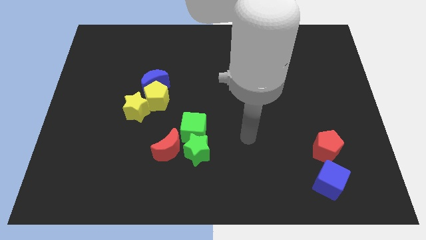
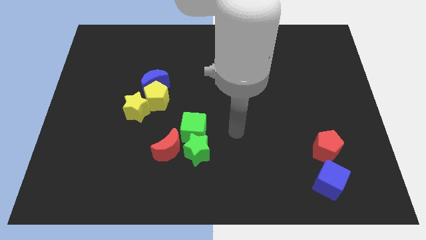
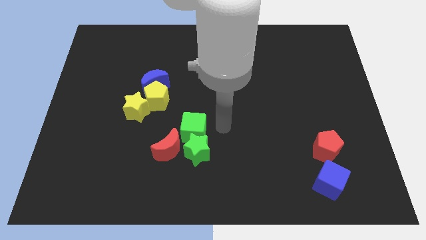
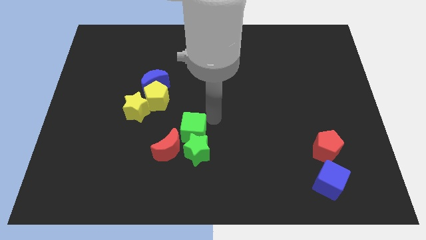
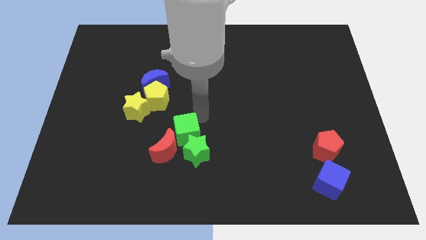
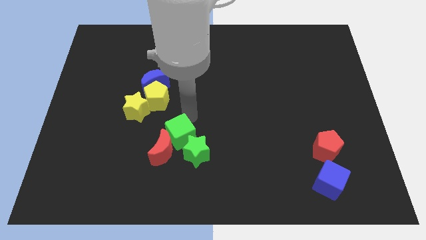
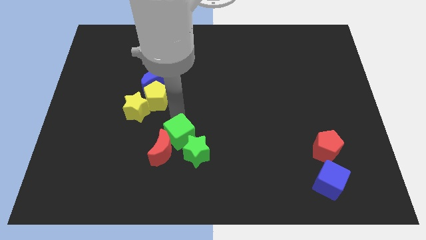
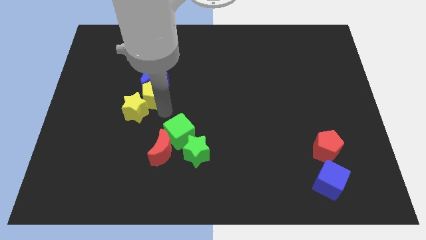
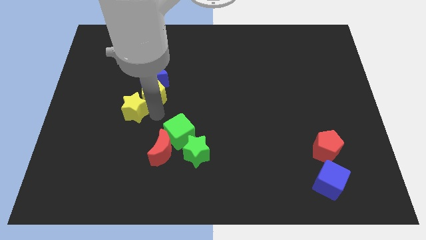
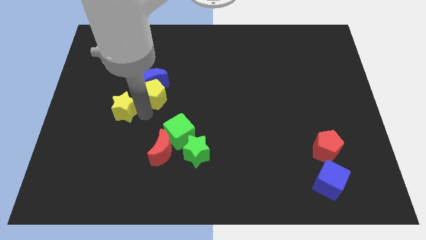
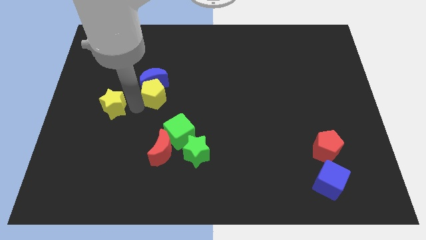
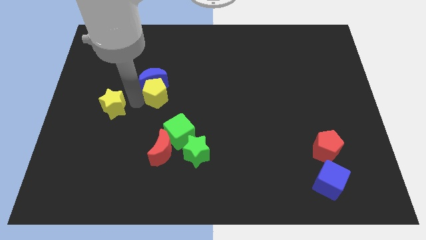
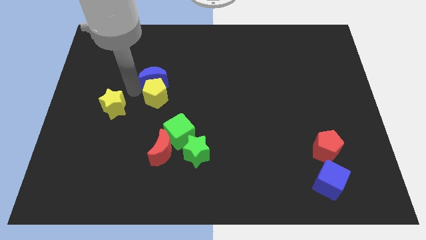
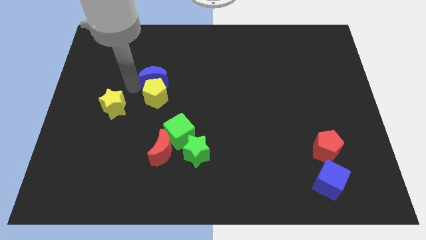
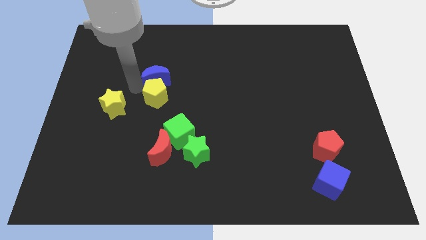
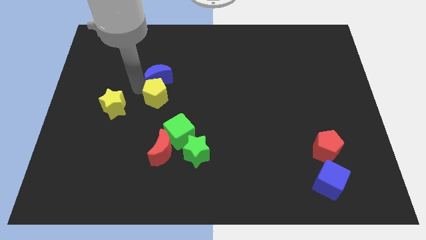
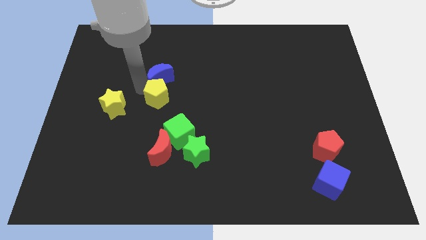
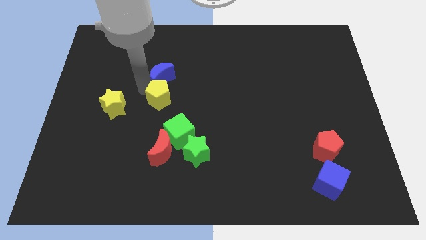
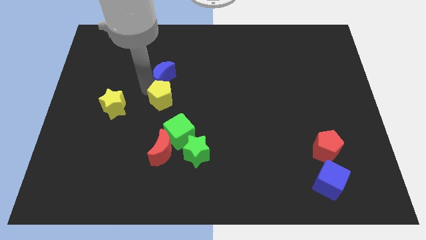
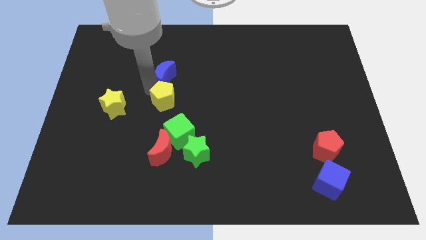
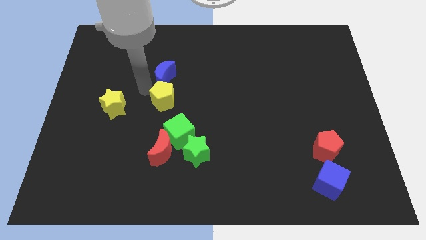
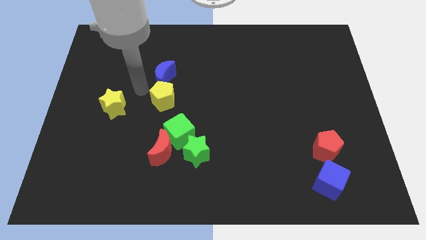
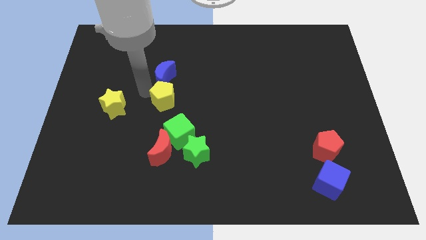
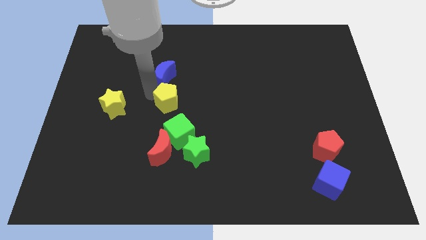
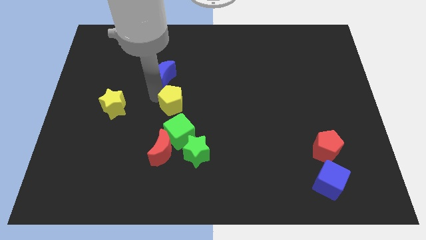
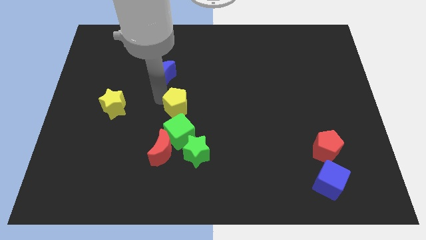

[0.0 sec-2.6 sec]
pull the yellow pentagon apart from the blue moon and yellow star

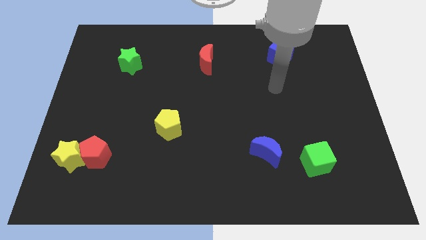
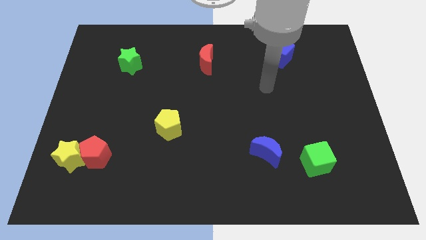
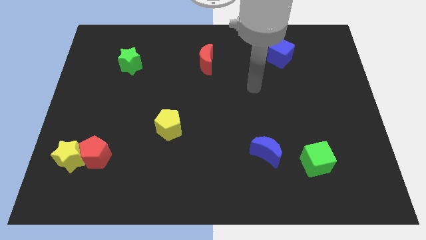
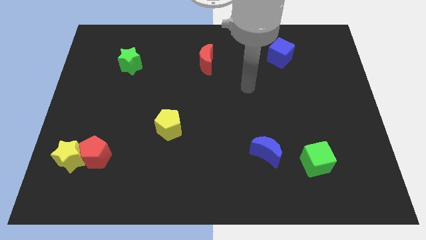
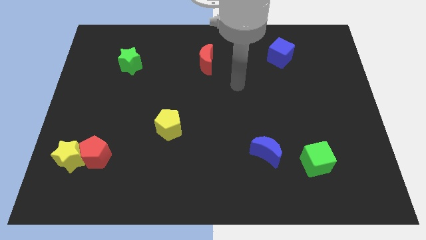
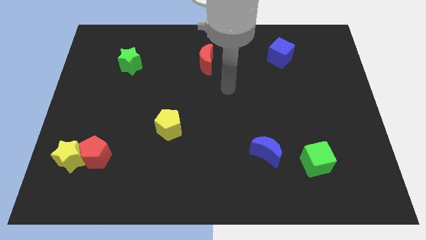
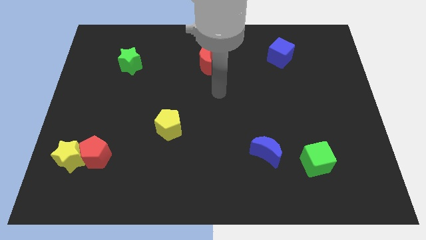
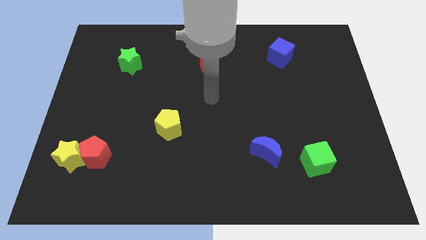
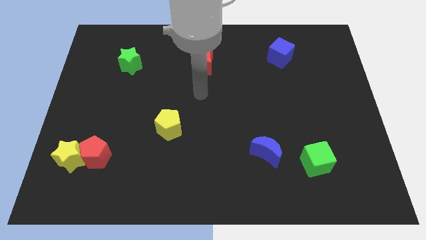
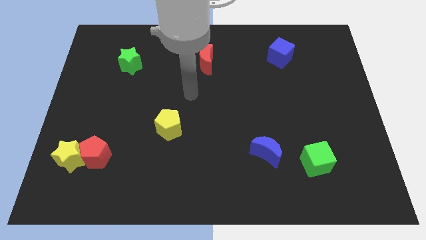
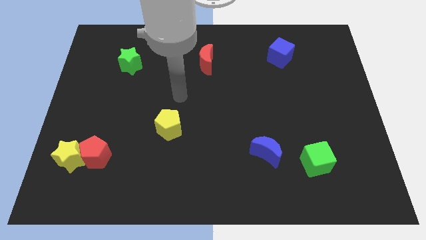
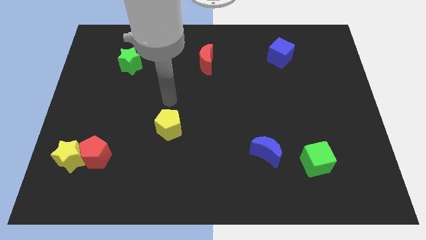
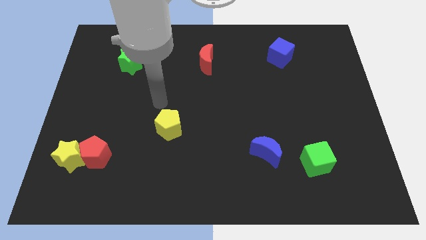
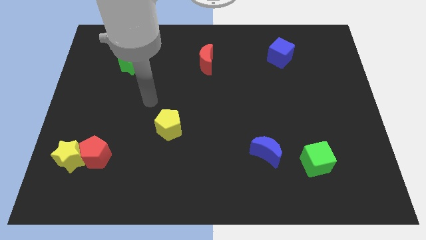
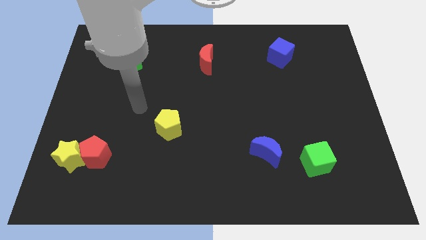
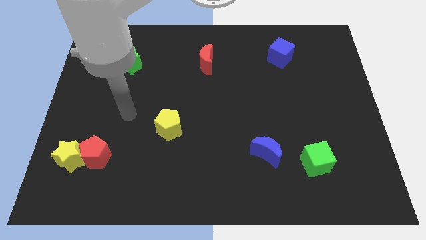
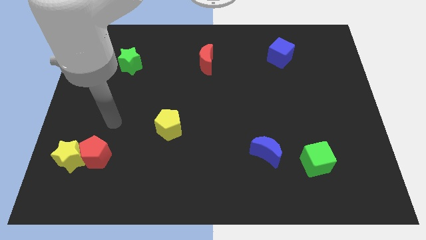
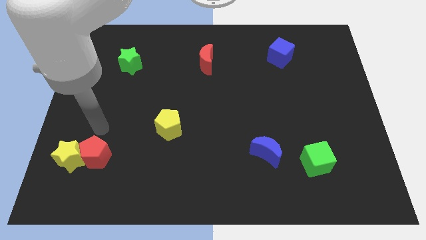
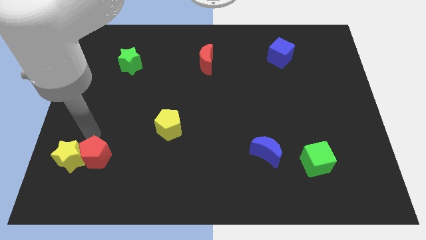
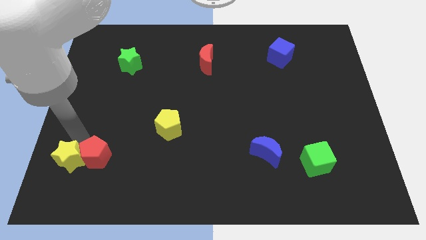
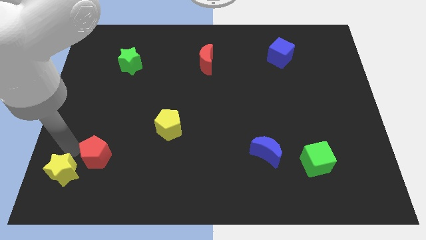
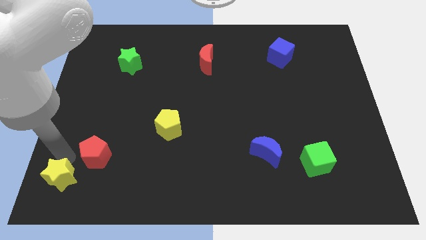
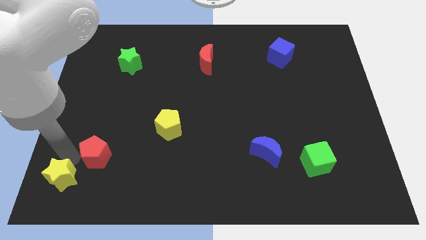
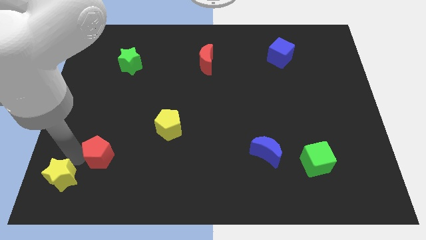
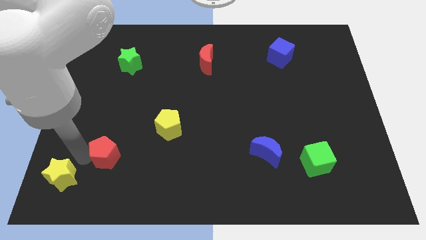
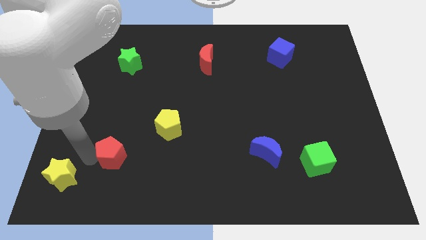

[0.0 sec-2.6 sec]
separate the red pentagon from the yellow star

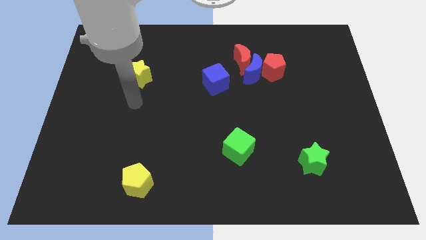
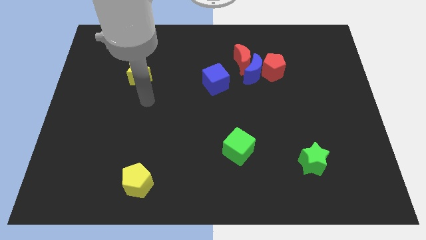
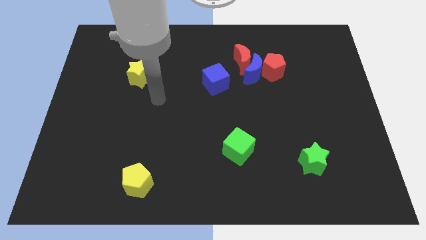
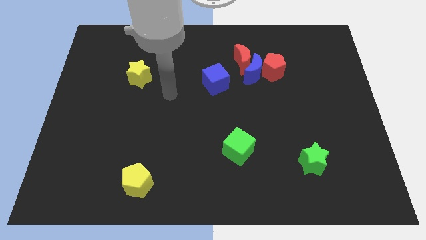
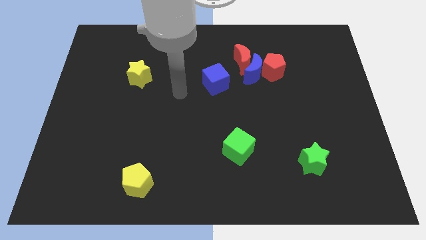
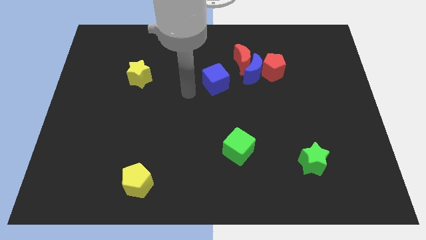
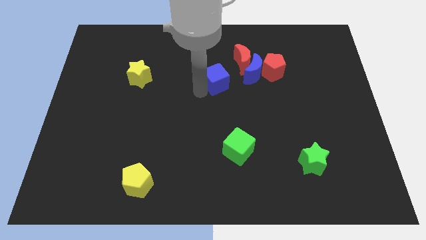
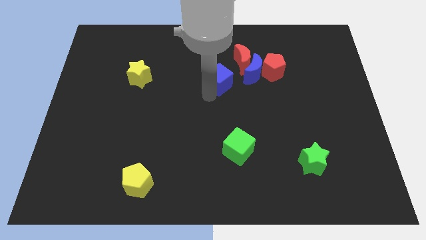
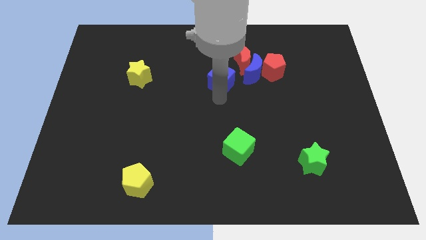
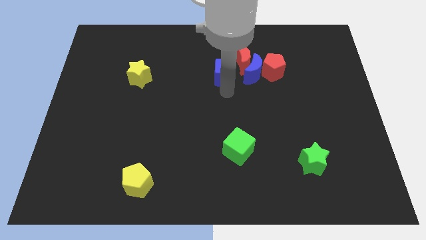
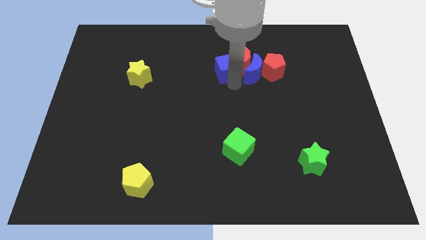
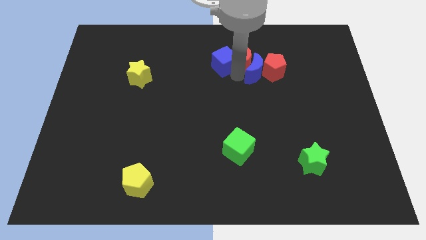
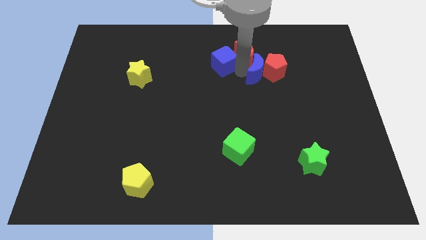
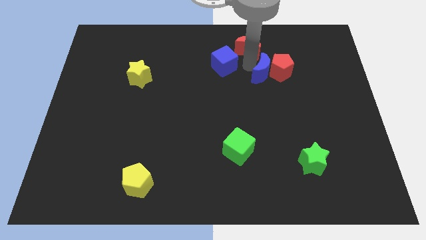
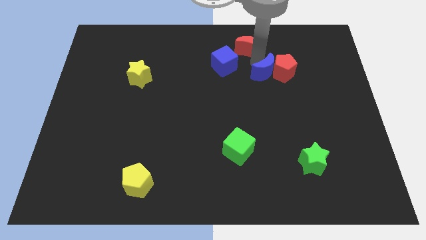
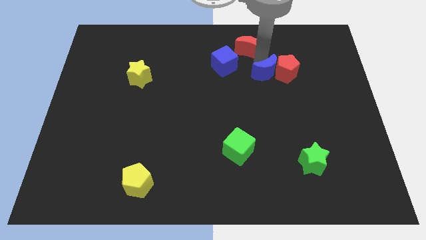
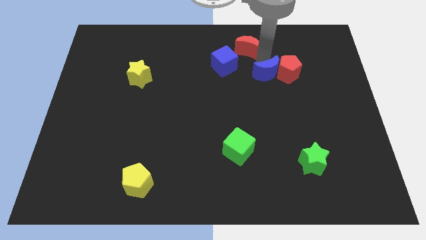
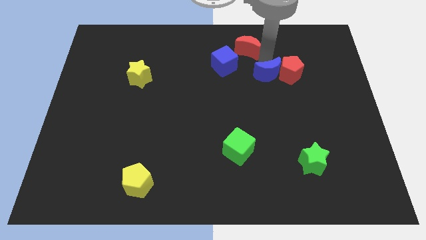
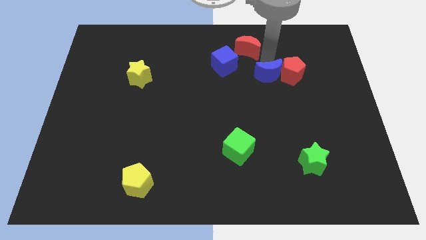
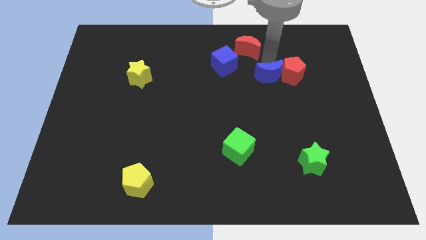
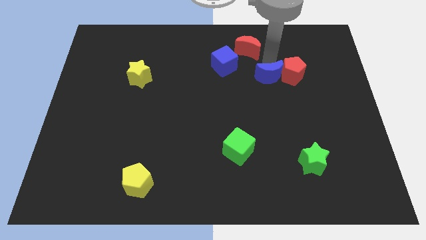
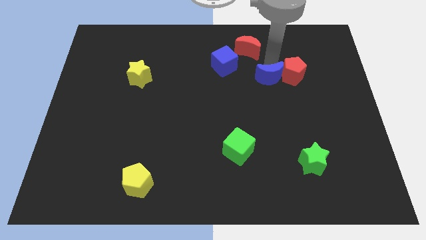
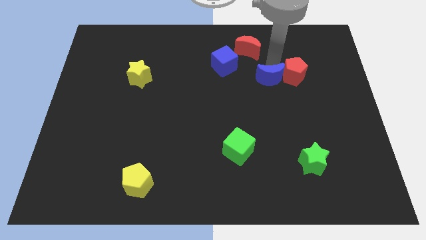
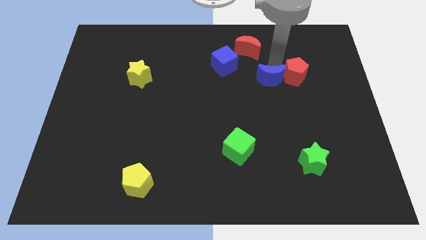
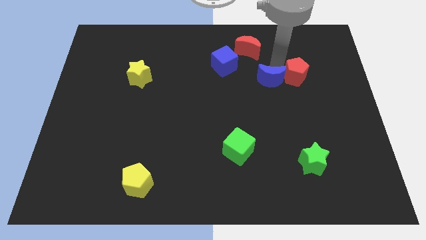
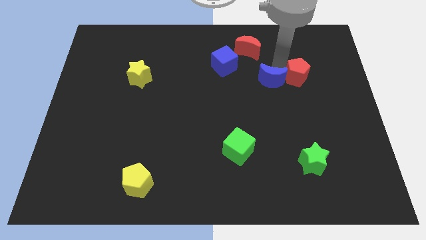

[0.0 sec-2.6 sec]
pull the red pentagon apart from the blue moon and red moon

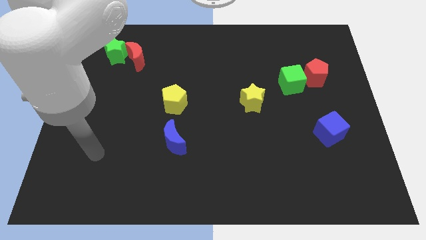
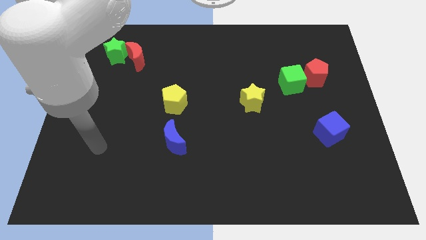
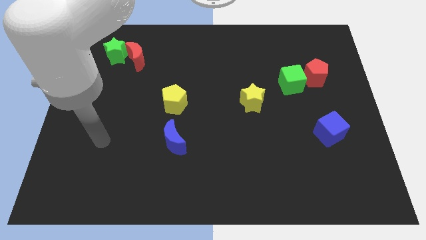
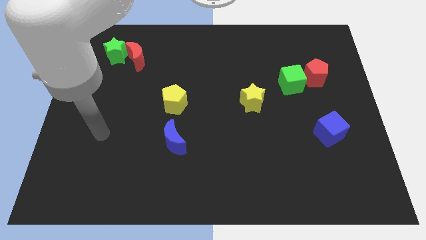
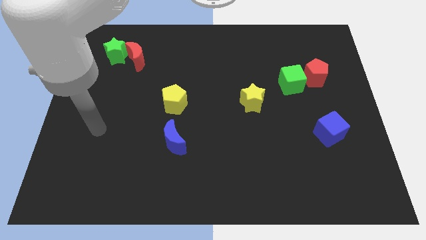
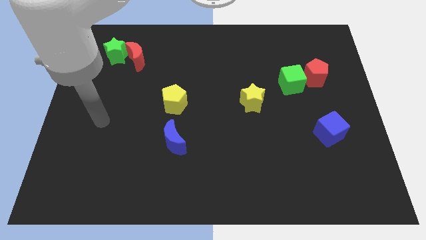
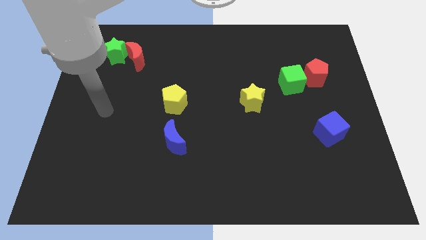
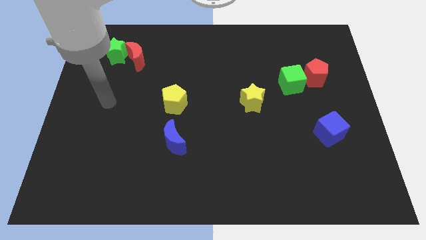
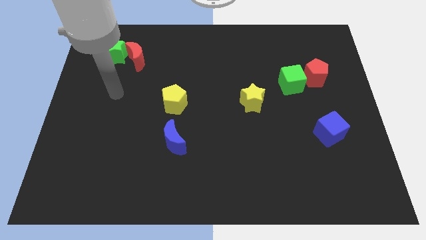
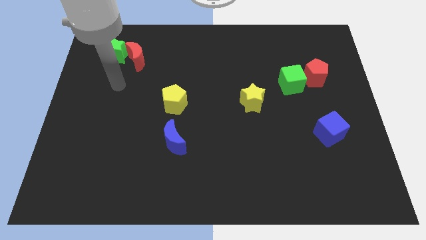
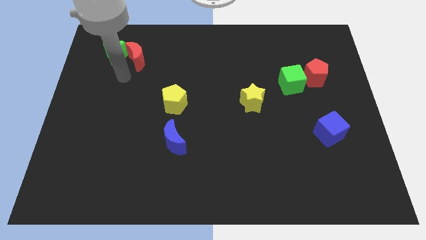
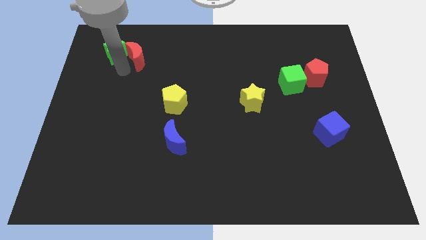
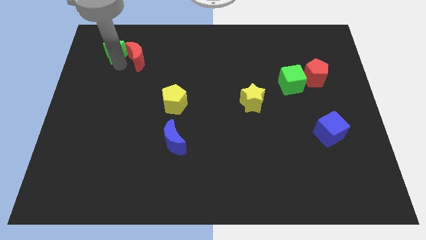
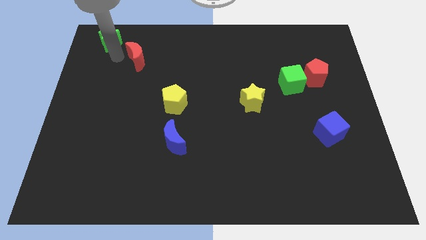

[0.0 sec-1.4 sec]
separate the red moon from the green star

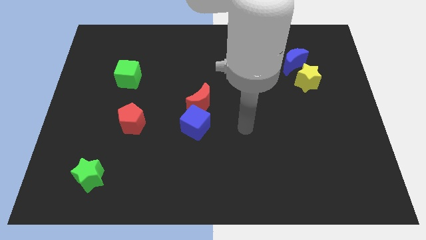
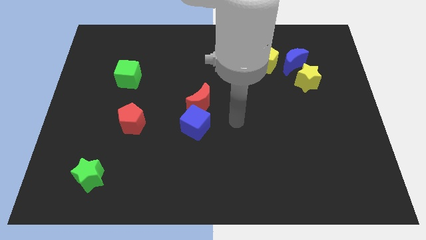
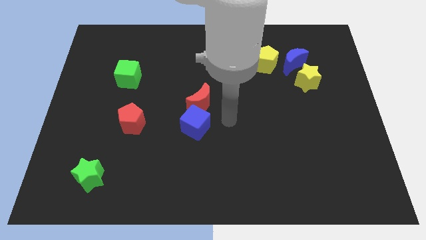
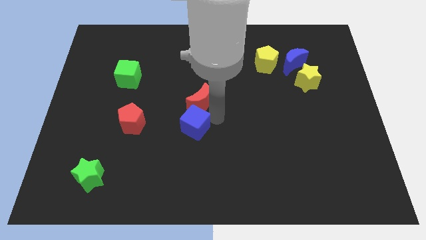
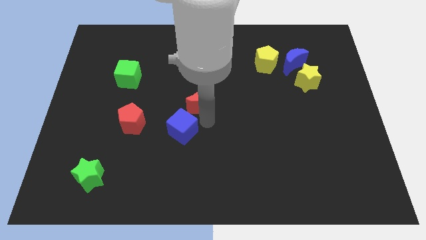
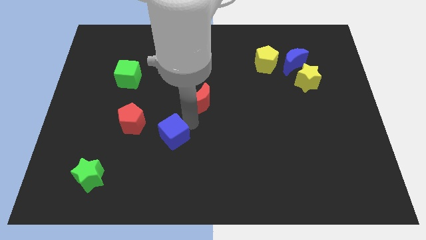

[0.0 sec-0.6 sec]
move the red moon away from the blue cube
